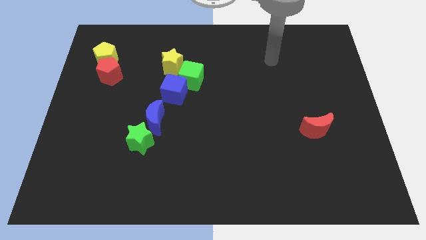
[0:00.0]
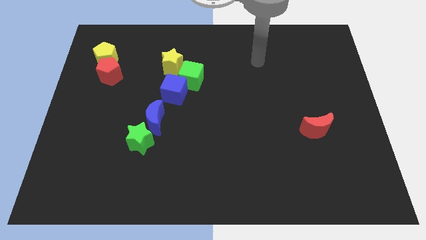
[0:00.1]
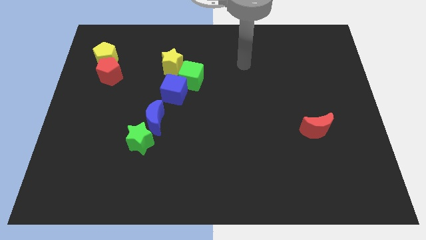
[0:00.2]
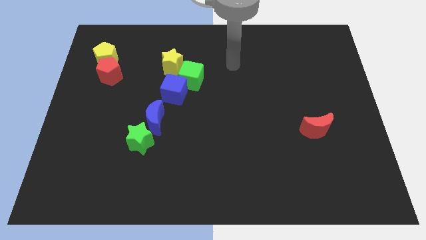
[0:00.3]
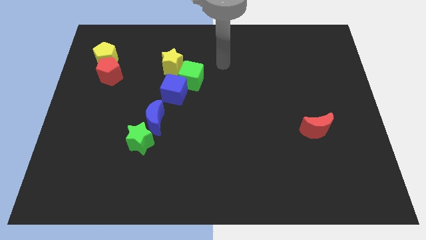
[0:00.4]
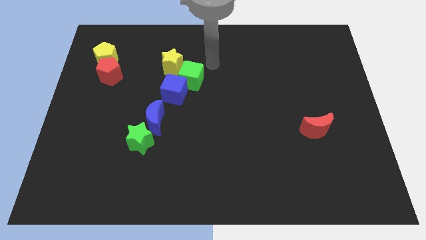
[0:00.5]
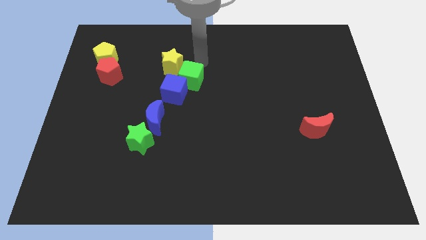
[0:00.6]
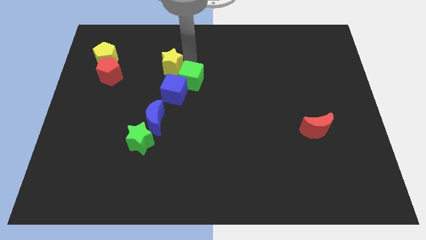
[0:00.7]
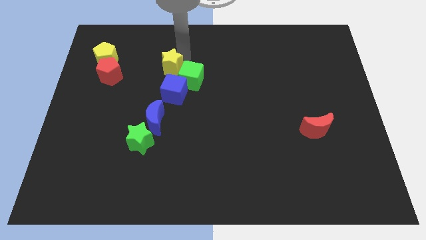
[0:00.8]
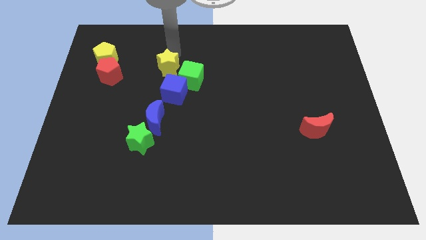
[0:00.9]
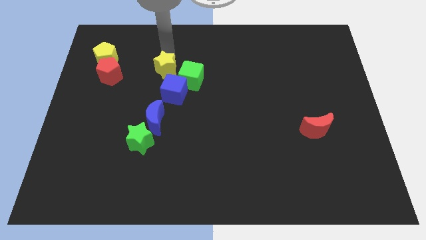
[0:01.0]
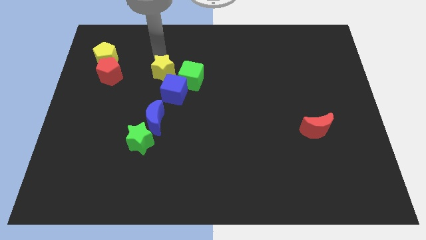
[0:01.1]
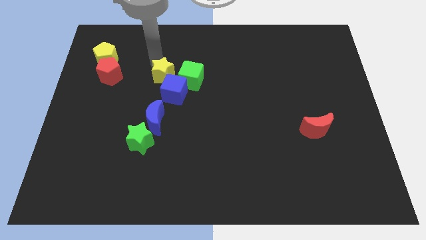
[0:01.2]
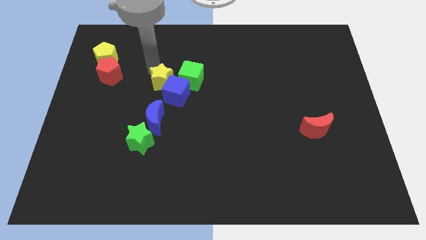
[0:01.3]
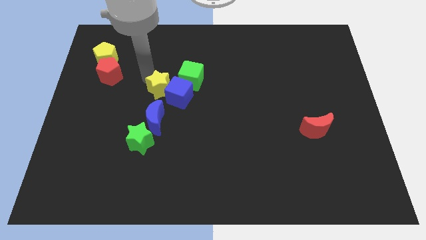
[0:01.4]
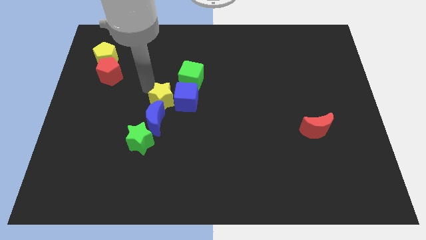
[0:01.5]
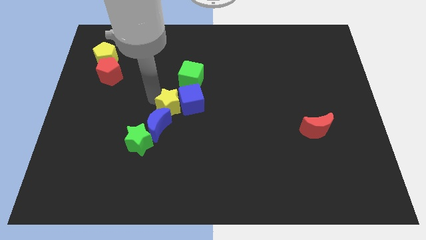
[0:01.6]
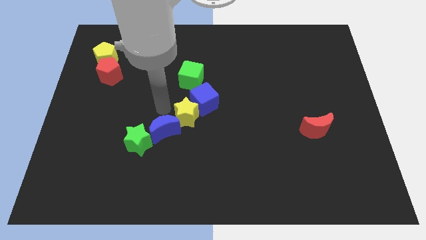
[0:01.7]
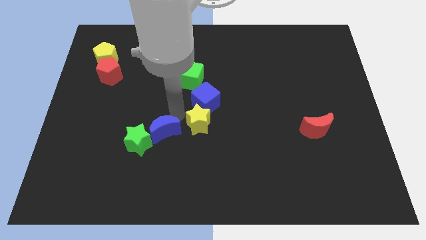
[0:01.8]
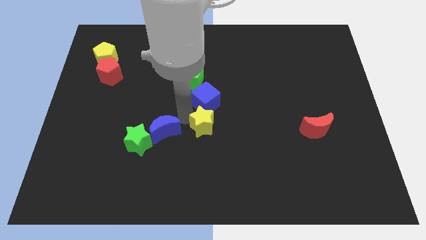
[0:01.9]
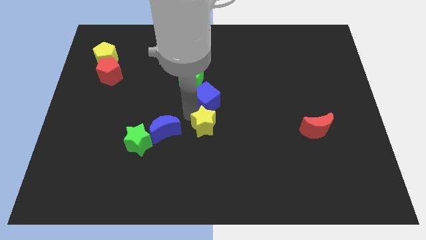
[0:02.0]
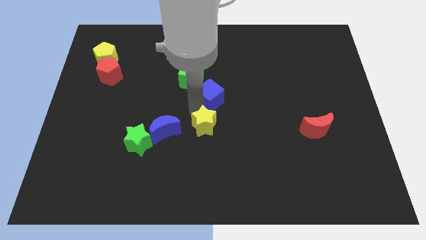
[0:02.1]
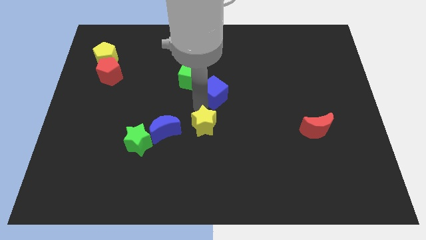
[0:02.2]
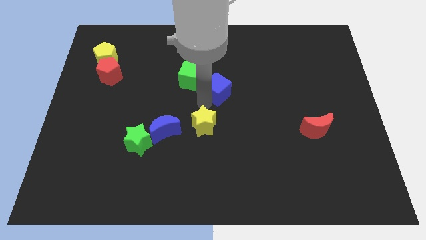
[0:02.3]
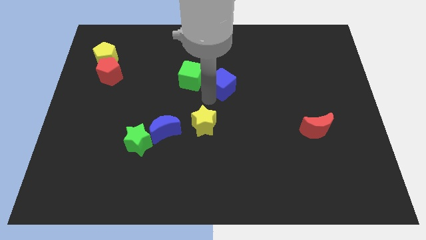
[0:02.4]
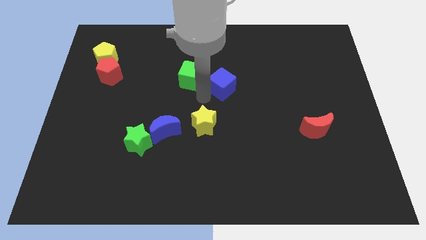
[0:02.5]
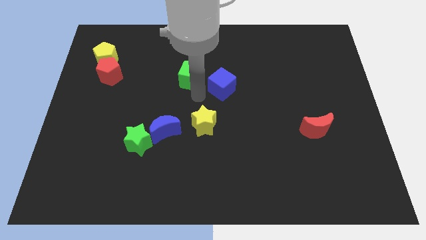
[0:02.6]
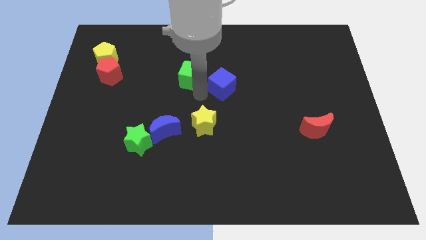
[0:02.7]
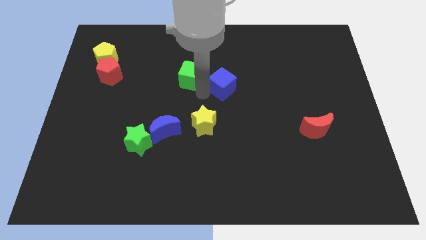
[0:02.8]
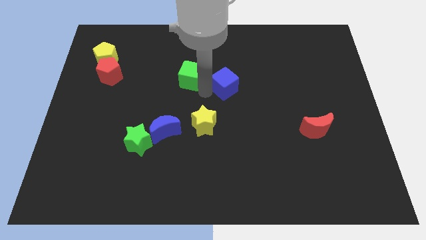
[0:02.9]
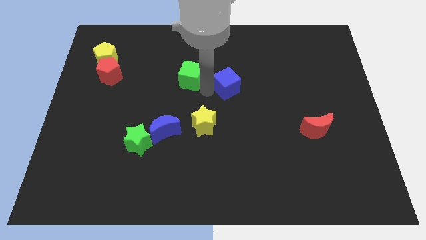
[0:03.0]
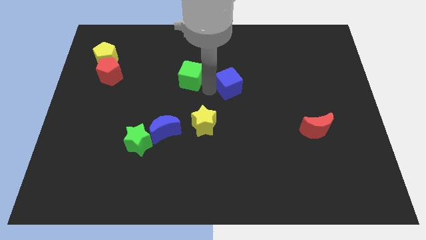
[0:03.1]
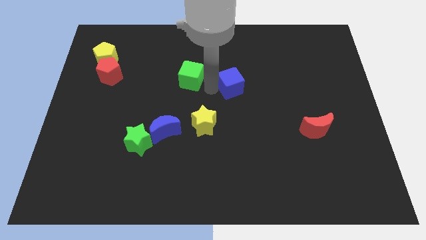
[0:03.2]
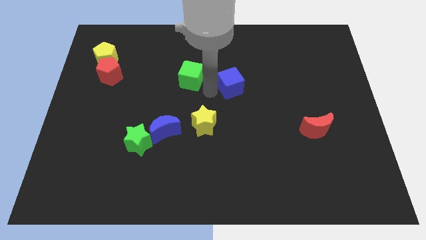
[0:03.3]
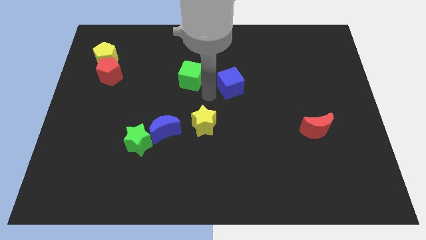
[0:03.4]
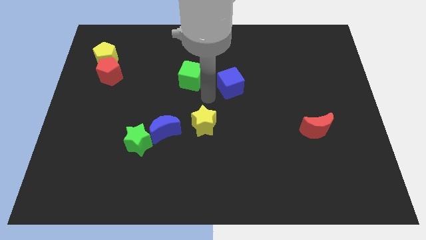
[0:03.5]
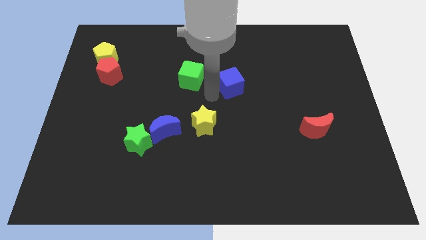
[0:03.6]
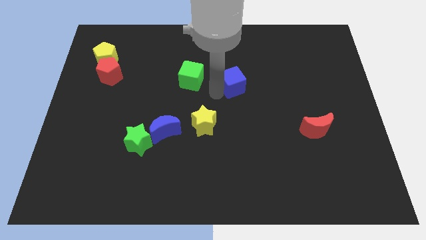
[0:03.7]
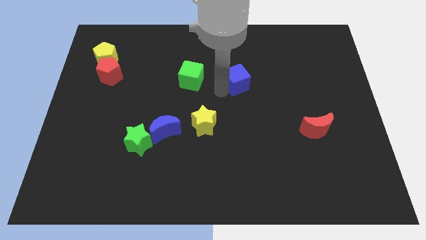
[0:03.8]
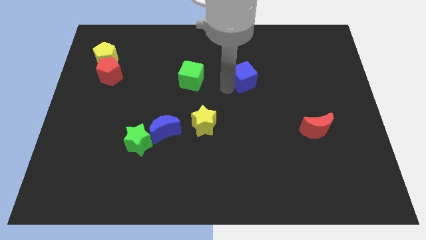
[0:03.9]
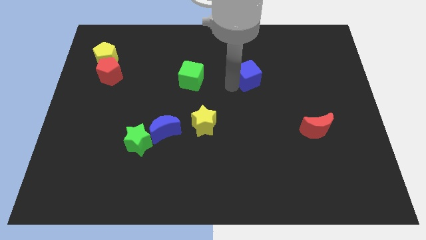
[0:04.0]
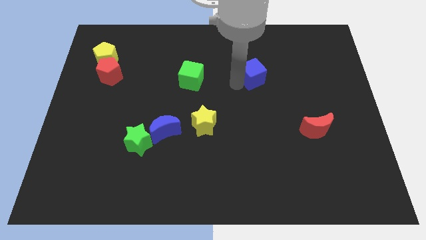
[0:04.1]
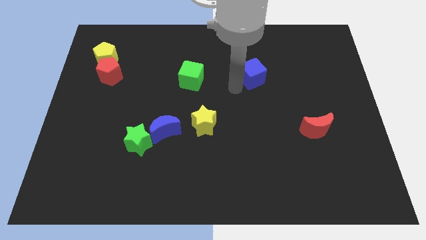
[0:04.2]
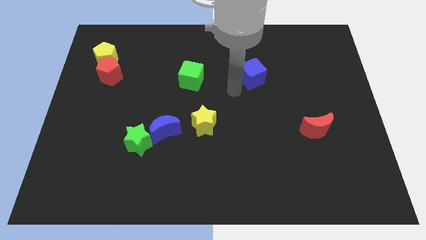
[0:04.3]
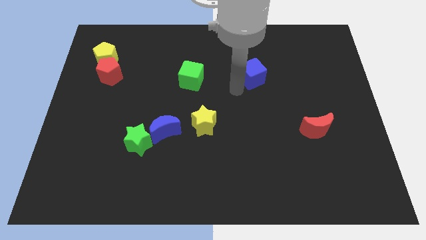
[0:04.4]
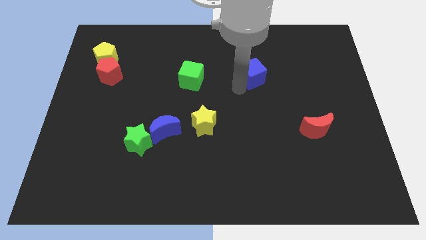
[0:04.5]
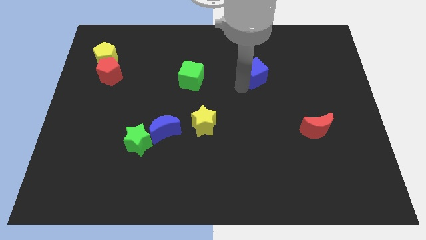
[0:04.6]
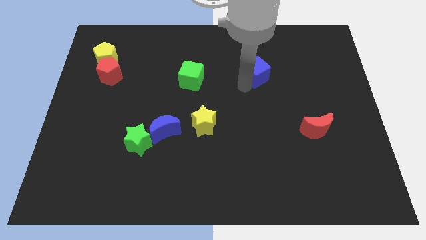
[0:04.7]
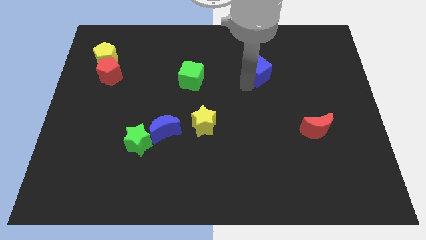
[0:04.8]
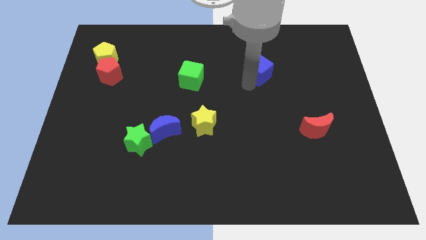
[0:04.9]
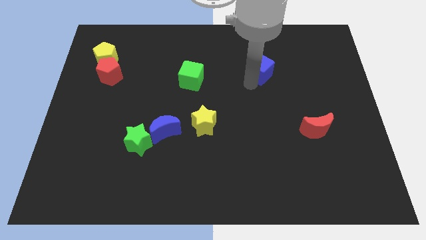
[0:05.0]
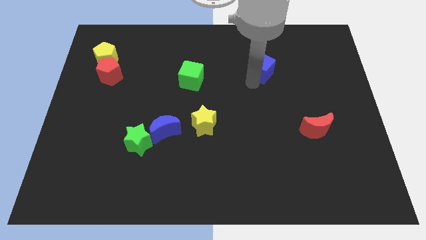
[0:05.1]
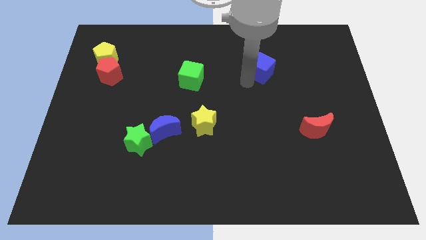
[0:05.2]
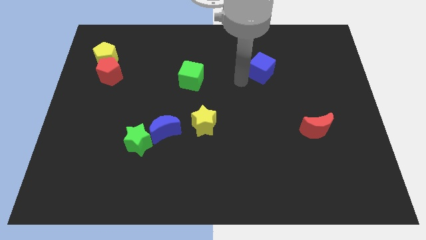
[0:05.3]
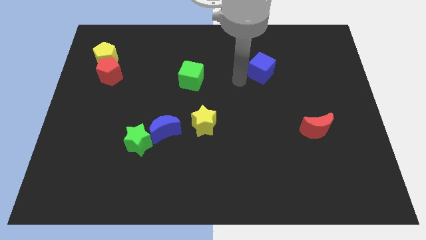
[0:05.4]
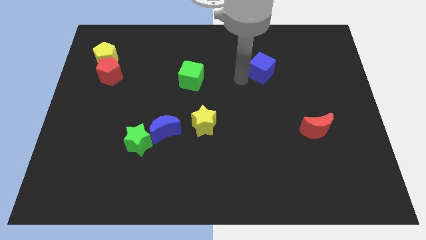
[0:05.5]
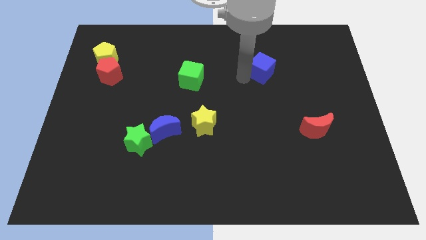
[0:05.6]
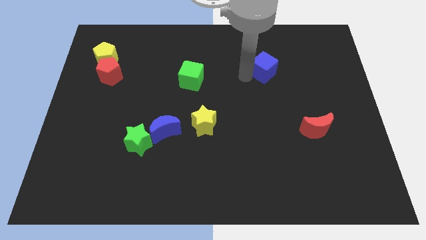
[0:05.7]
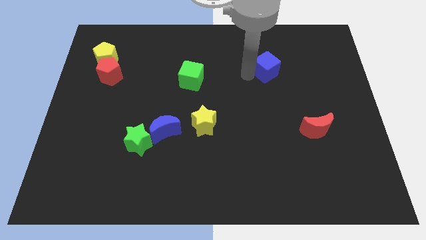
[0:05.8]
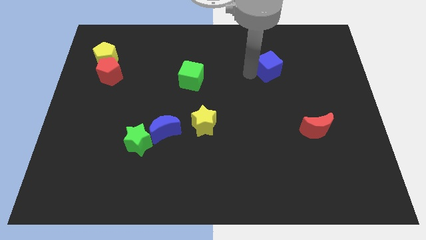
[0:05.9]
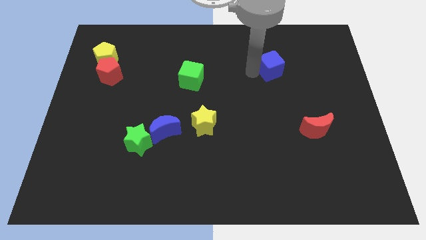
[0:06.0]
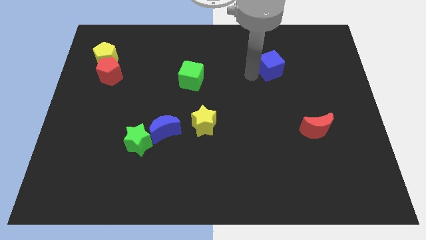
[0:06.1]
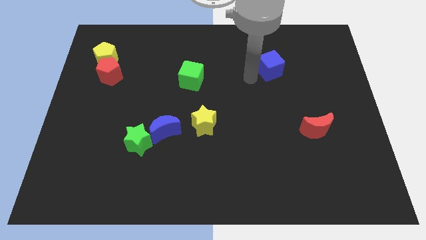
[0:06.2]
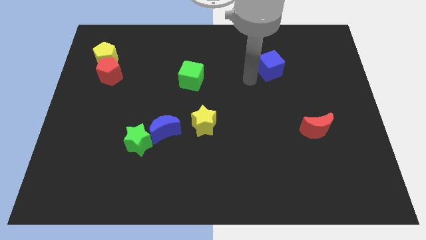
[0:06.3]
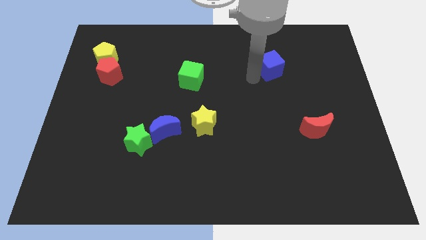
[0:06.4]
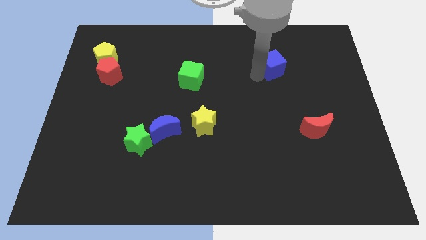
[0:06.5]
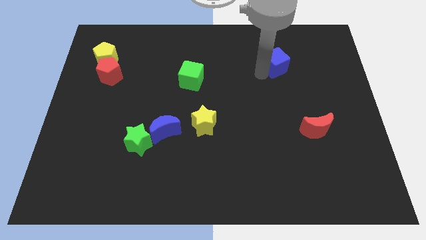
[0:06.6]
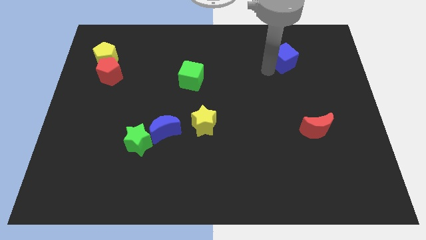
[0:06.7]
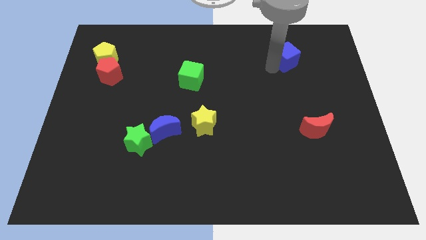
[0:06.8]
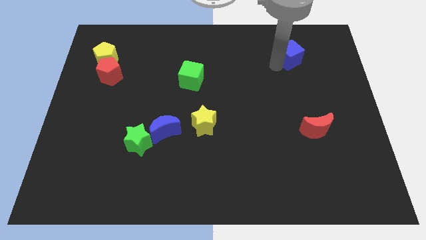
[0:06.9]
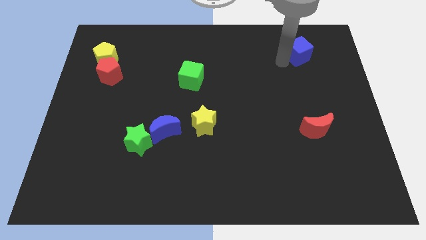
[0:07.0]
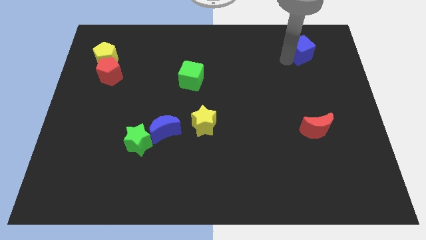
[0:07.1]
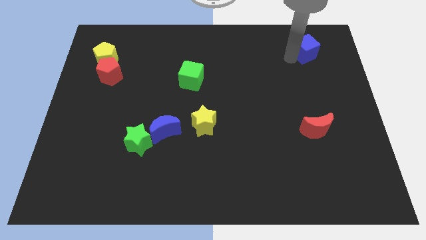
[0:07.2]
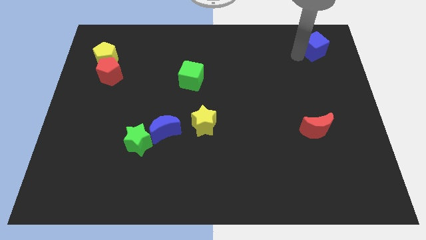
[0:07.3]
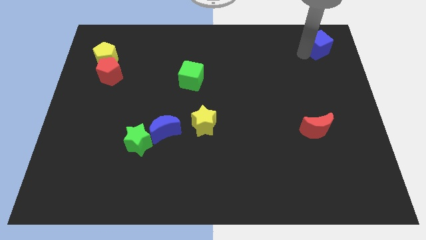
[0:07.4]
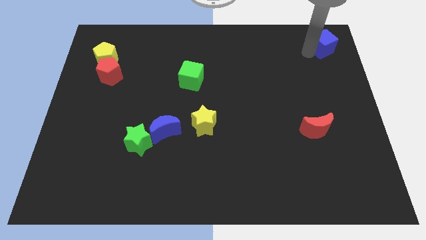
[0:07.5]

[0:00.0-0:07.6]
put the blue cube to the upper right corner
